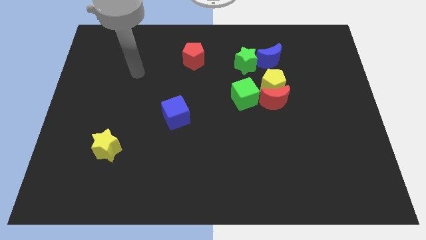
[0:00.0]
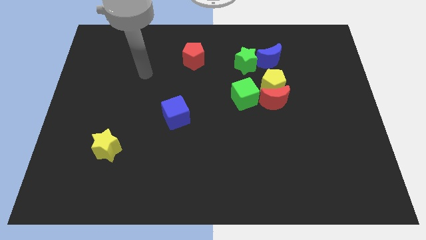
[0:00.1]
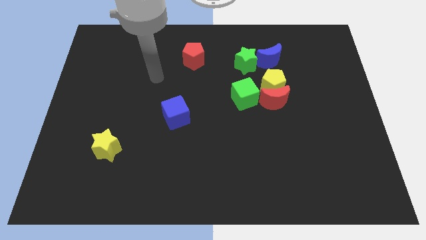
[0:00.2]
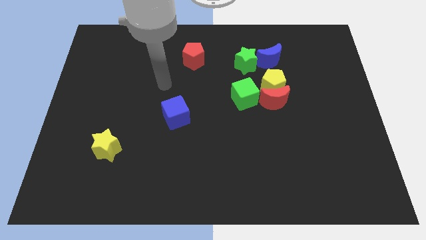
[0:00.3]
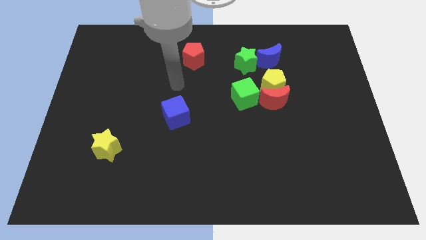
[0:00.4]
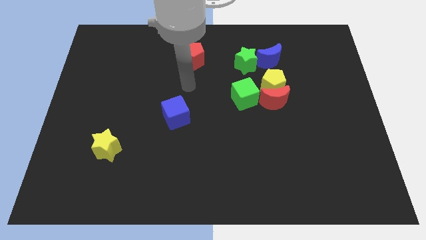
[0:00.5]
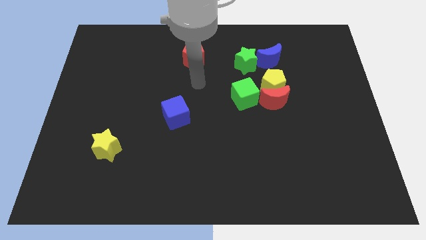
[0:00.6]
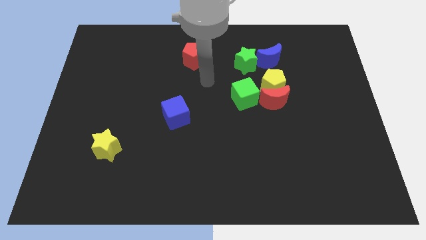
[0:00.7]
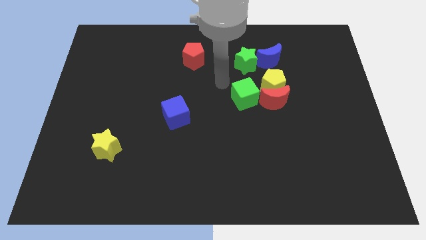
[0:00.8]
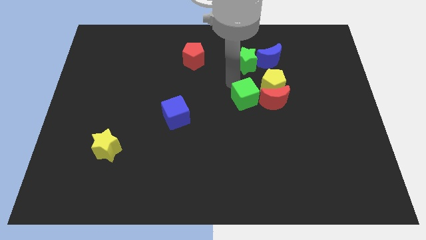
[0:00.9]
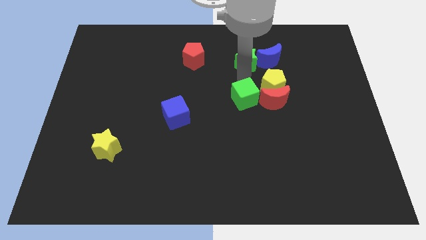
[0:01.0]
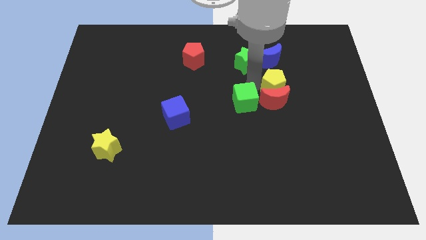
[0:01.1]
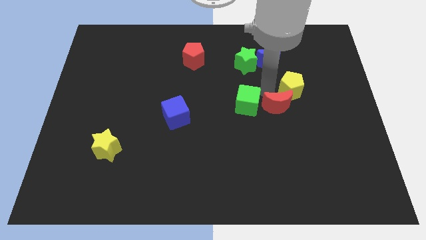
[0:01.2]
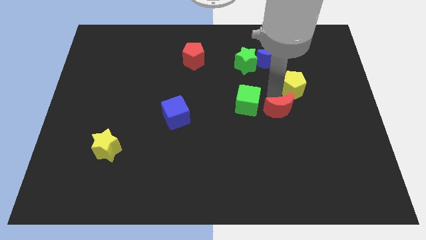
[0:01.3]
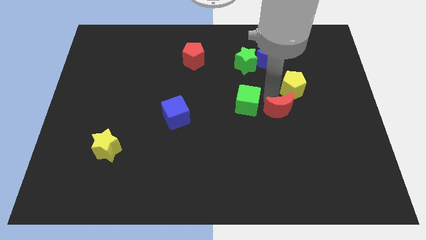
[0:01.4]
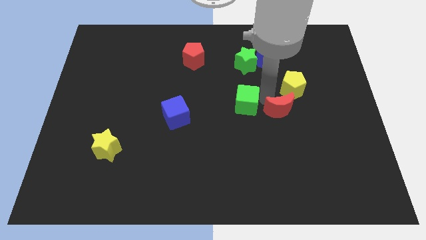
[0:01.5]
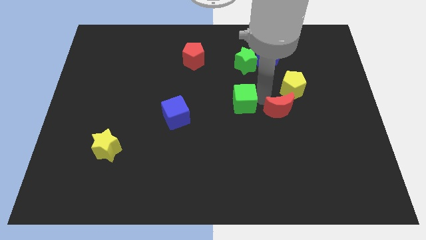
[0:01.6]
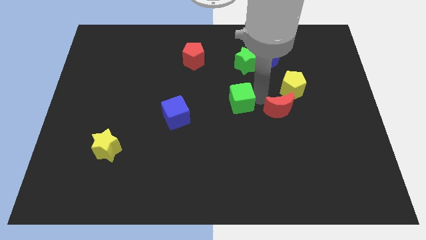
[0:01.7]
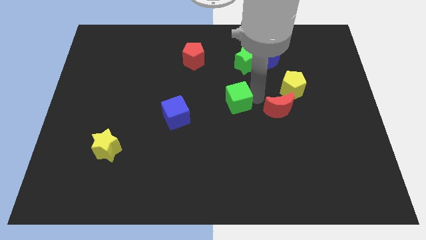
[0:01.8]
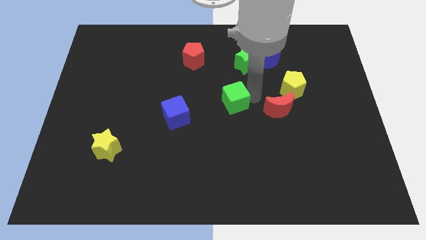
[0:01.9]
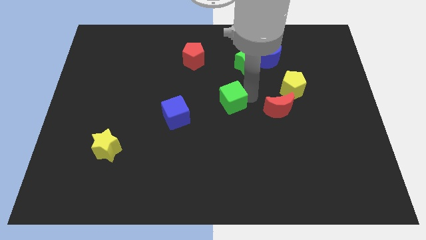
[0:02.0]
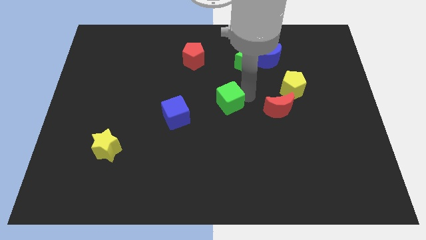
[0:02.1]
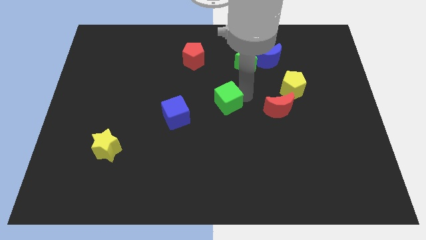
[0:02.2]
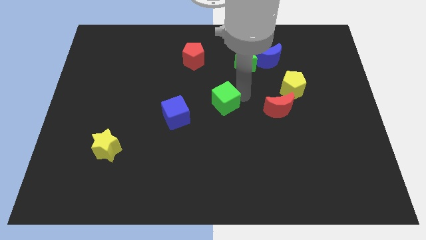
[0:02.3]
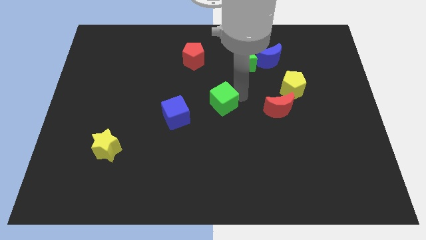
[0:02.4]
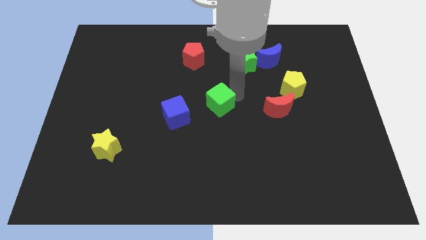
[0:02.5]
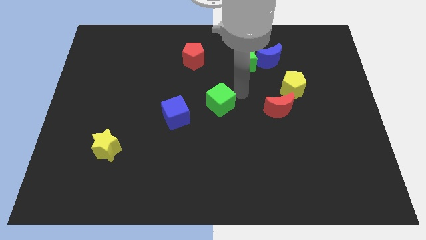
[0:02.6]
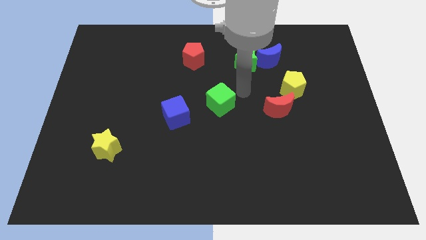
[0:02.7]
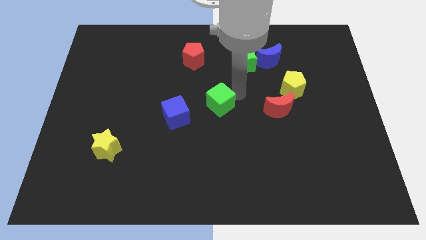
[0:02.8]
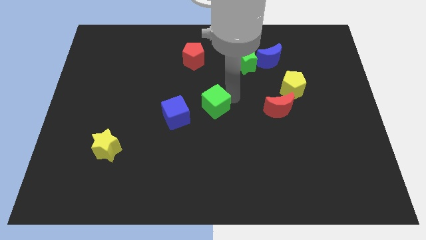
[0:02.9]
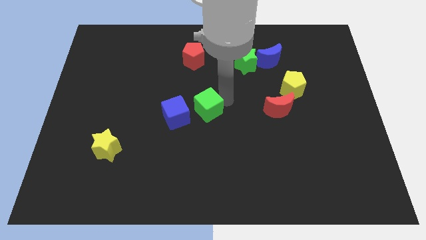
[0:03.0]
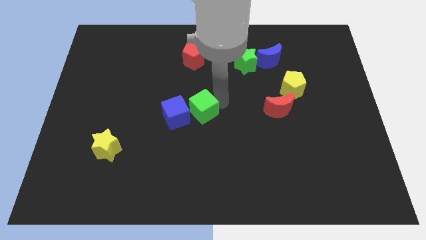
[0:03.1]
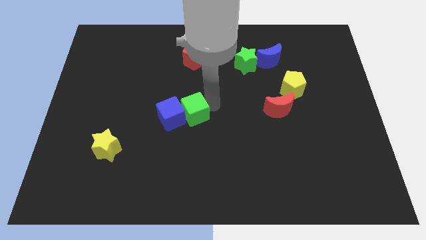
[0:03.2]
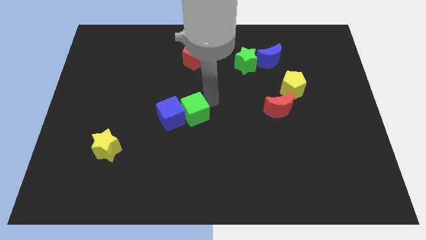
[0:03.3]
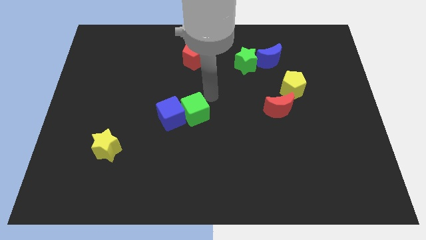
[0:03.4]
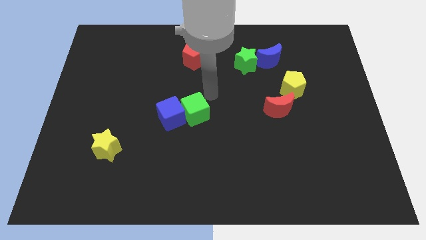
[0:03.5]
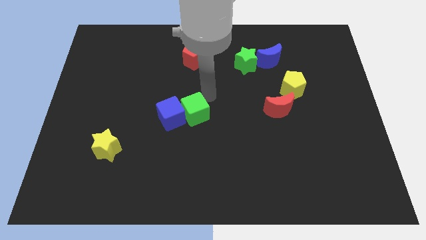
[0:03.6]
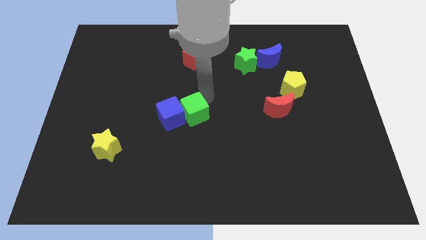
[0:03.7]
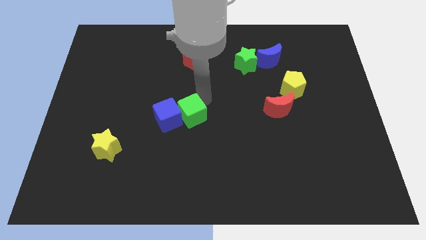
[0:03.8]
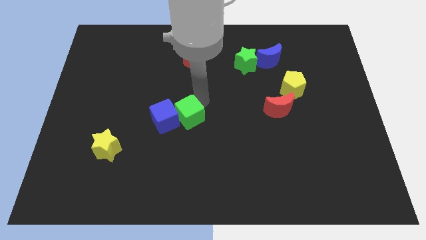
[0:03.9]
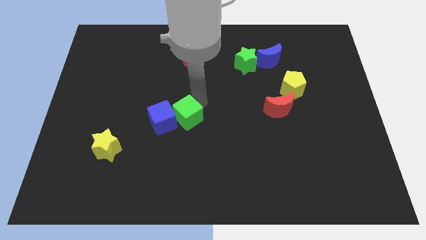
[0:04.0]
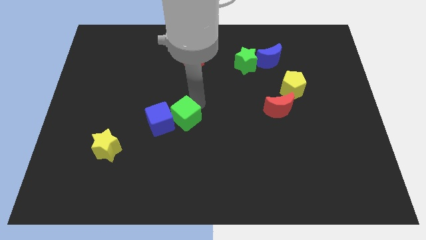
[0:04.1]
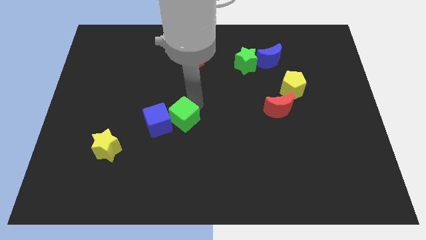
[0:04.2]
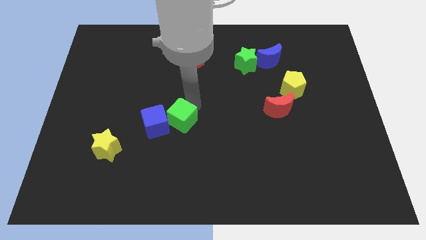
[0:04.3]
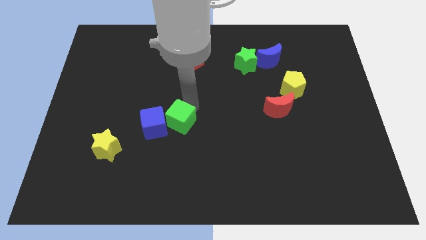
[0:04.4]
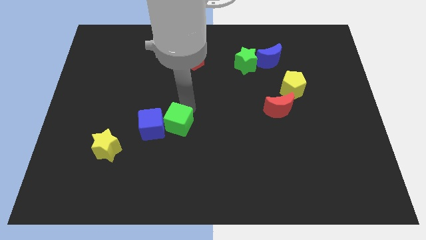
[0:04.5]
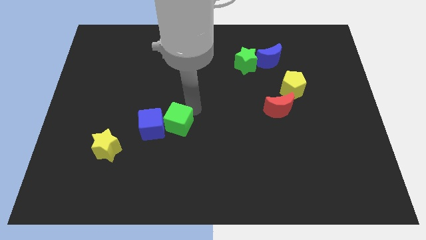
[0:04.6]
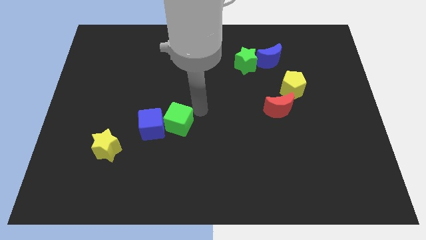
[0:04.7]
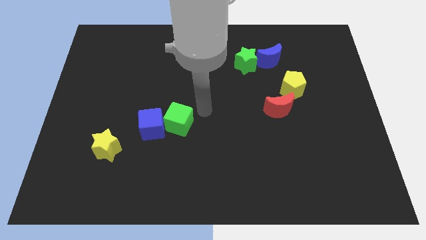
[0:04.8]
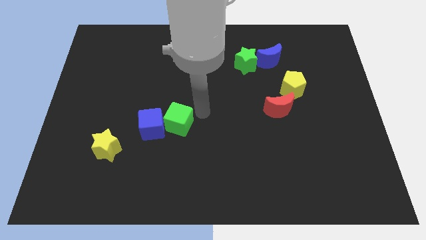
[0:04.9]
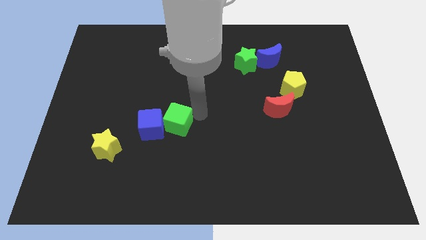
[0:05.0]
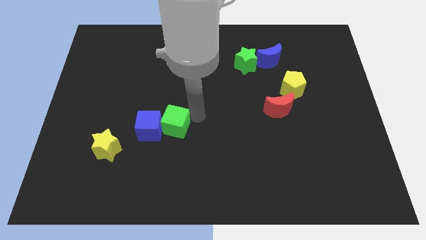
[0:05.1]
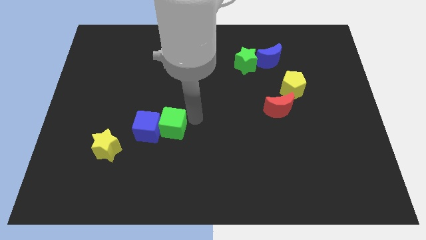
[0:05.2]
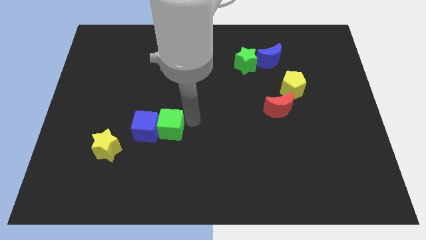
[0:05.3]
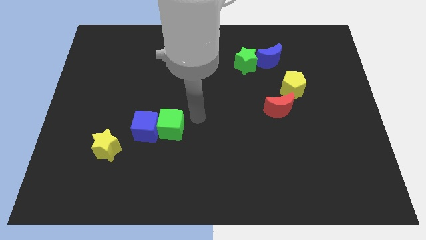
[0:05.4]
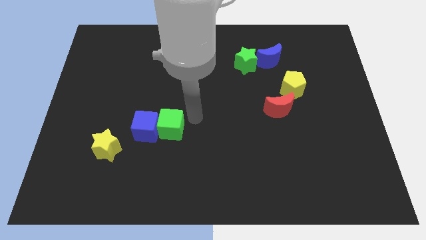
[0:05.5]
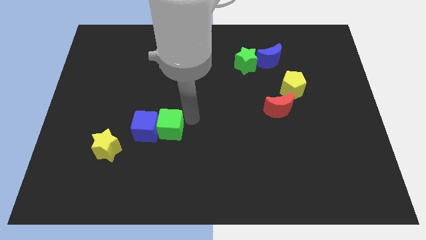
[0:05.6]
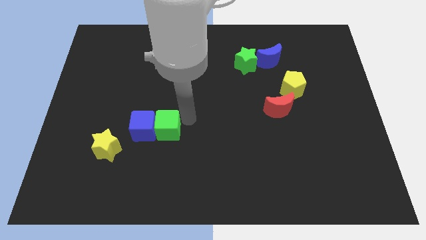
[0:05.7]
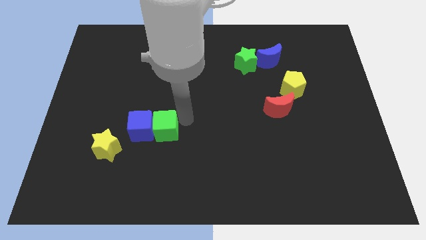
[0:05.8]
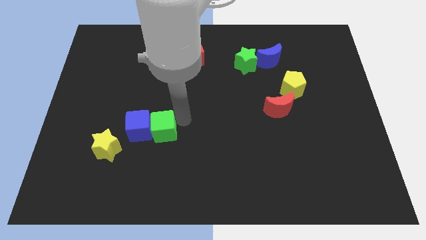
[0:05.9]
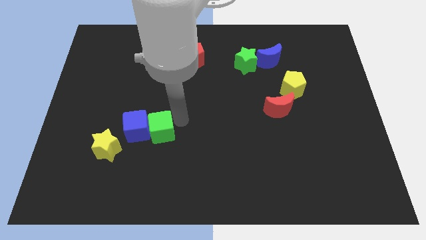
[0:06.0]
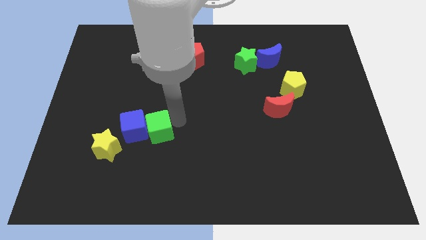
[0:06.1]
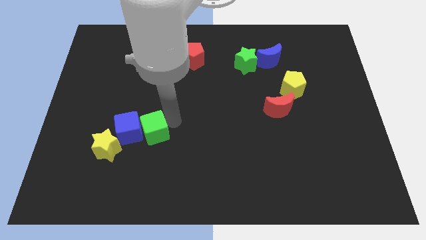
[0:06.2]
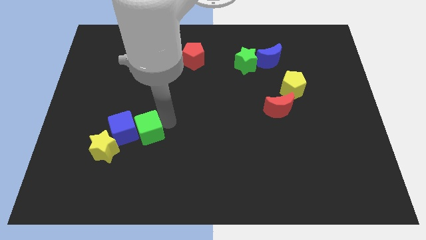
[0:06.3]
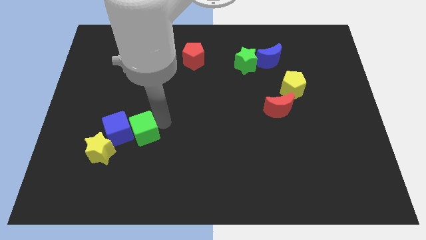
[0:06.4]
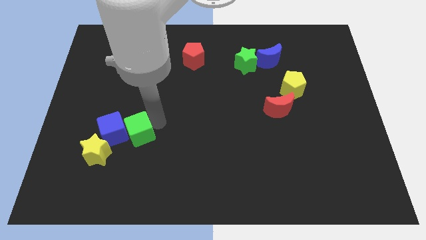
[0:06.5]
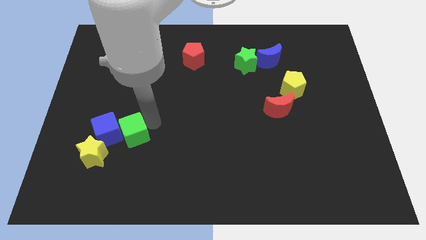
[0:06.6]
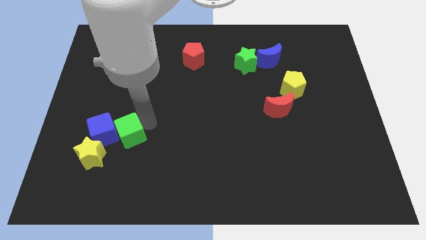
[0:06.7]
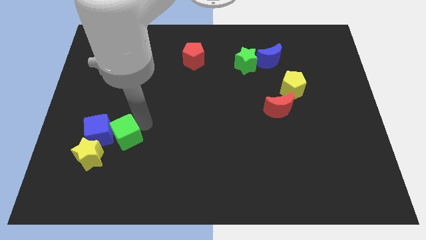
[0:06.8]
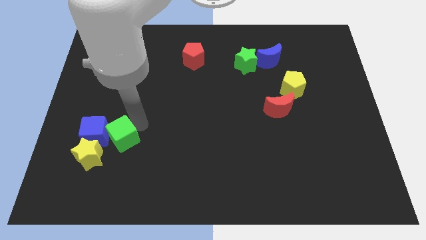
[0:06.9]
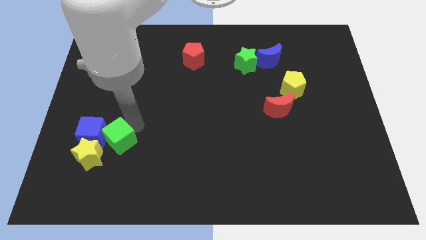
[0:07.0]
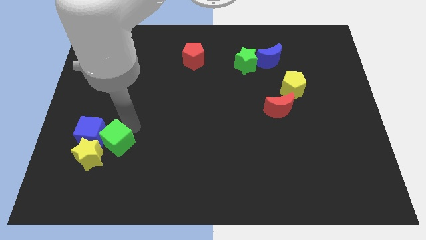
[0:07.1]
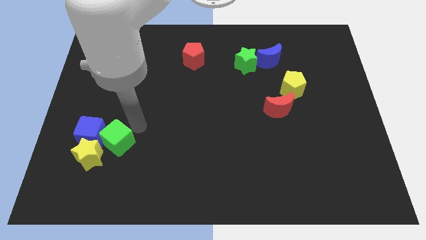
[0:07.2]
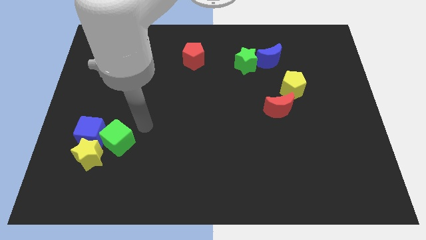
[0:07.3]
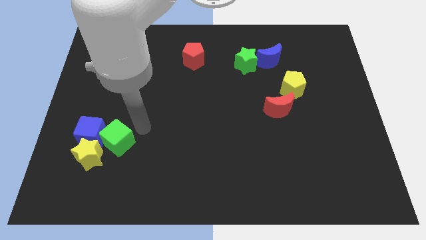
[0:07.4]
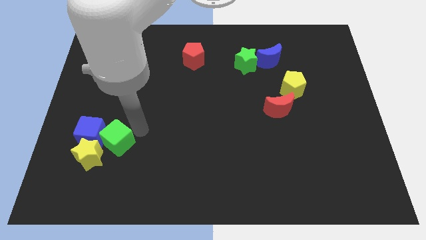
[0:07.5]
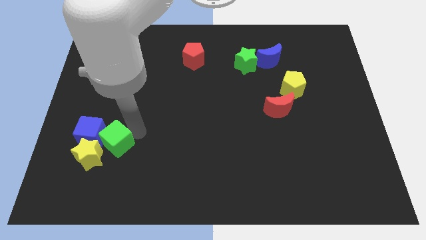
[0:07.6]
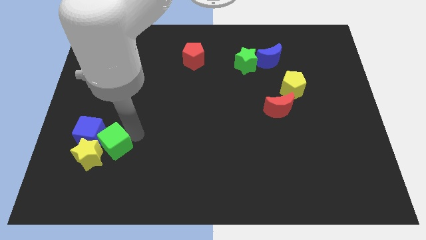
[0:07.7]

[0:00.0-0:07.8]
move the green cube close to the yellow star
